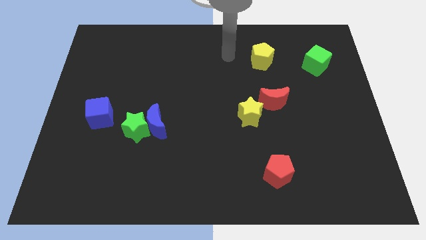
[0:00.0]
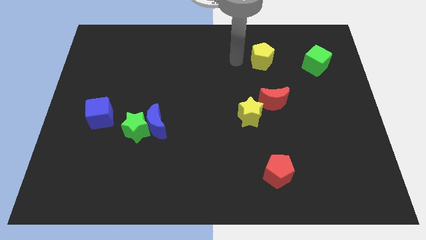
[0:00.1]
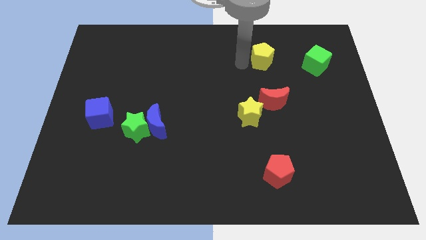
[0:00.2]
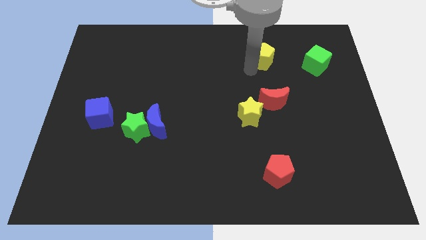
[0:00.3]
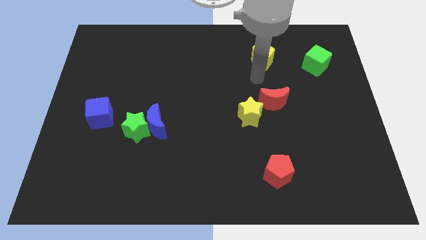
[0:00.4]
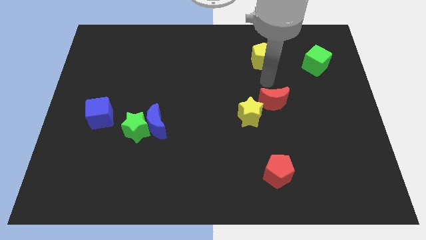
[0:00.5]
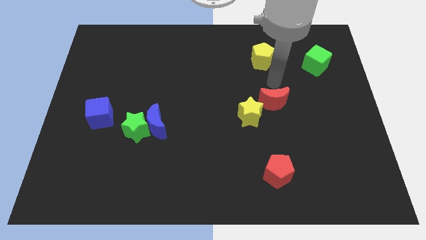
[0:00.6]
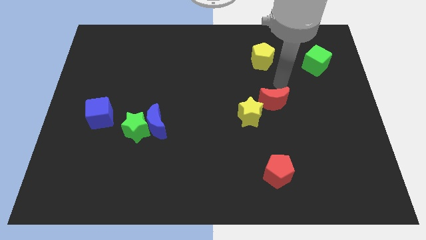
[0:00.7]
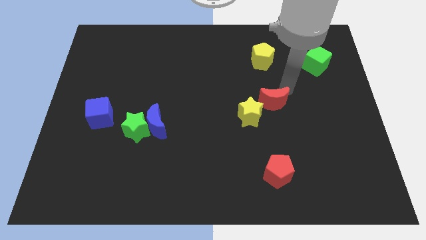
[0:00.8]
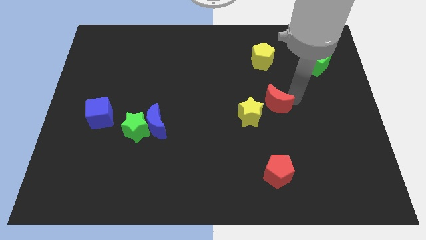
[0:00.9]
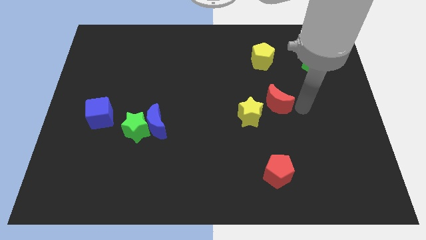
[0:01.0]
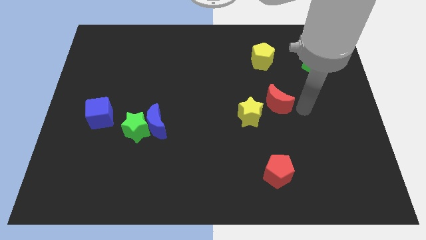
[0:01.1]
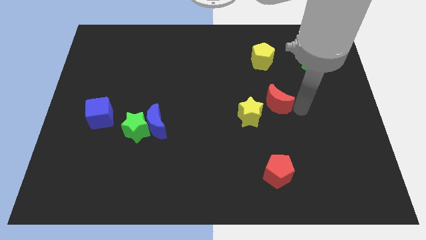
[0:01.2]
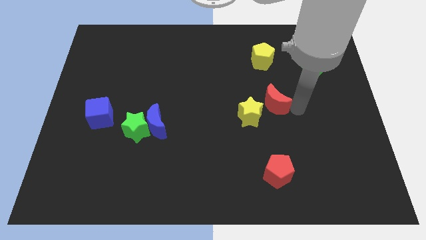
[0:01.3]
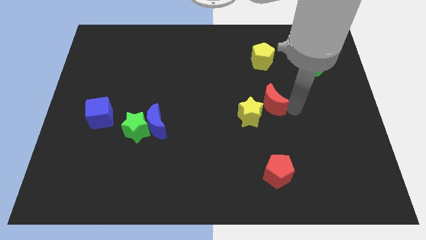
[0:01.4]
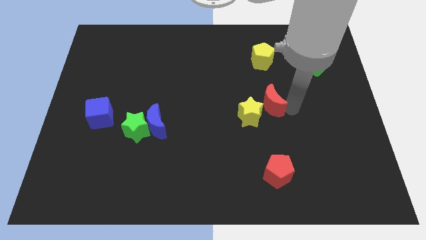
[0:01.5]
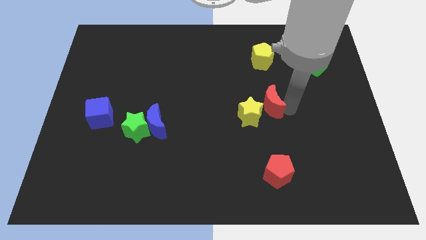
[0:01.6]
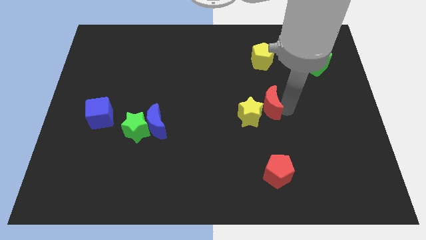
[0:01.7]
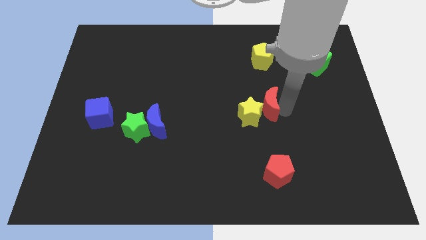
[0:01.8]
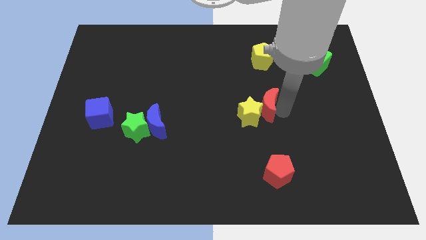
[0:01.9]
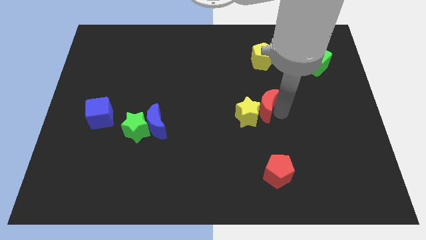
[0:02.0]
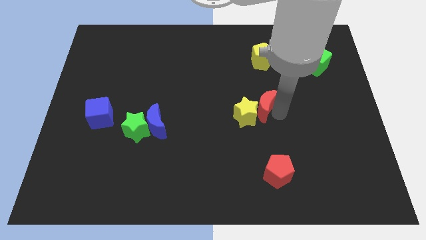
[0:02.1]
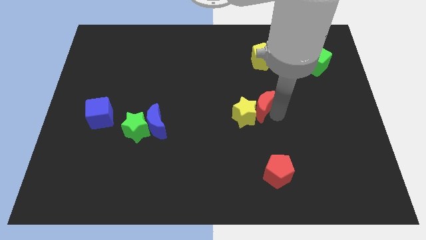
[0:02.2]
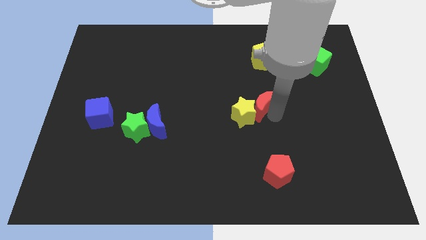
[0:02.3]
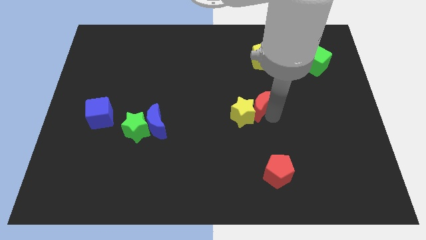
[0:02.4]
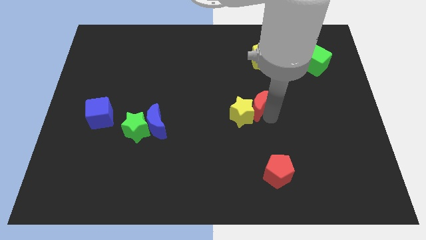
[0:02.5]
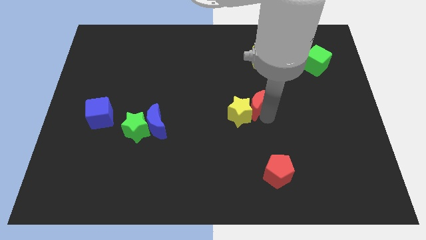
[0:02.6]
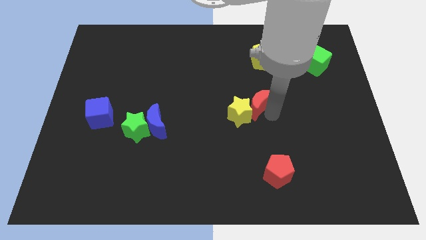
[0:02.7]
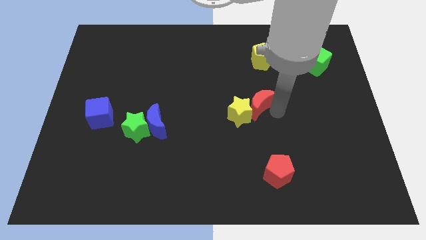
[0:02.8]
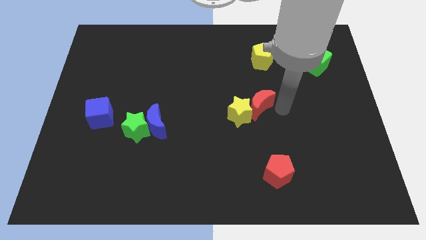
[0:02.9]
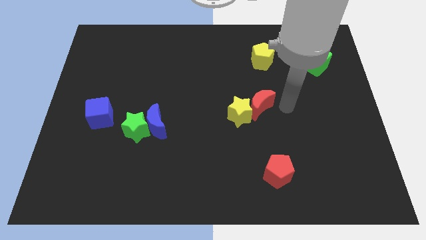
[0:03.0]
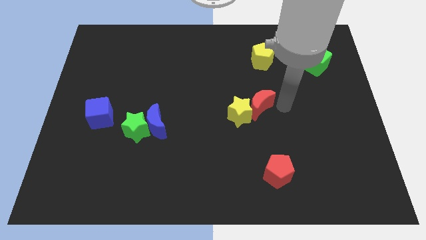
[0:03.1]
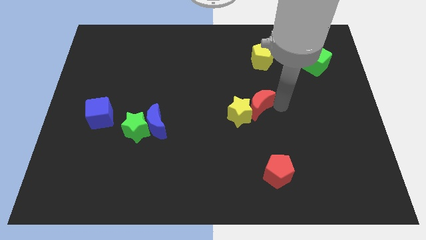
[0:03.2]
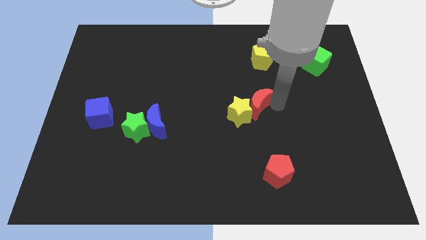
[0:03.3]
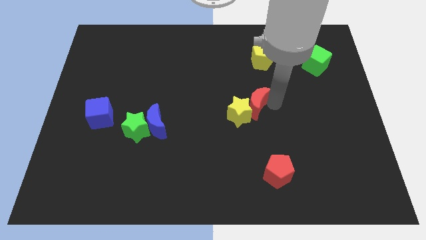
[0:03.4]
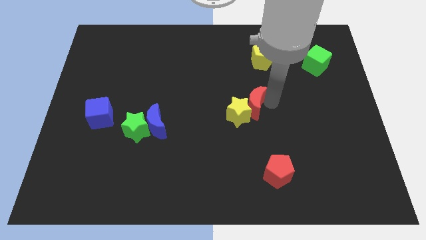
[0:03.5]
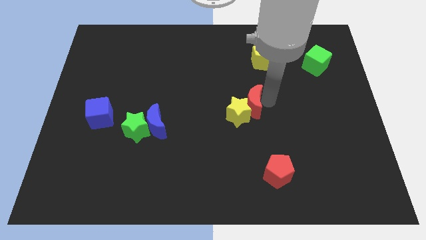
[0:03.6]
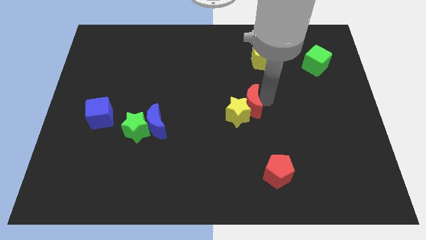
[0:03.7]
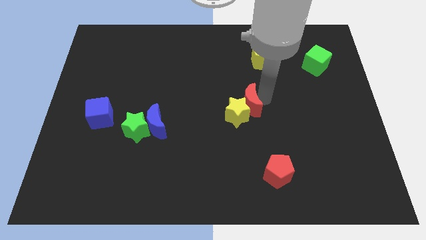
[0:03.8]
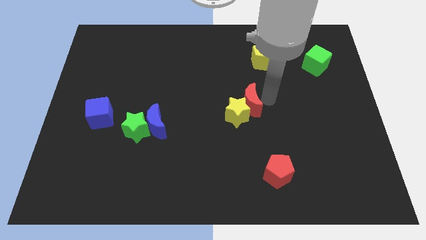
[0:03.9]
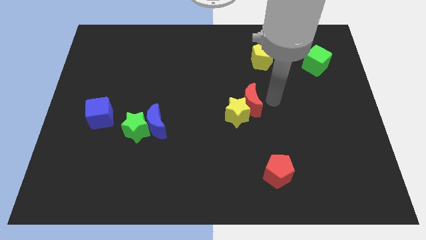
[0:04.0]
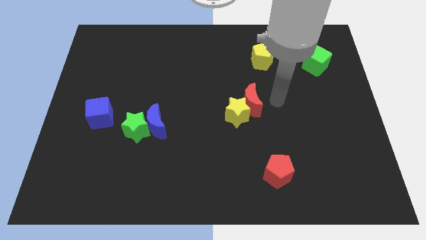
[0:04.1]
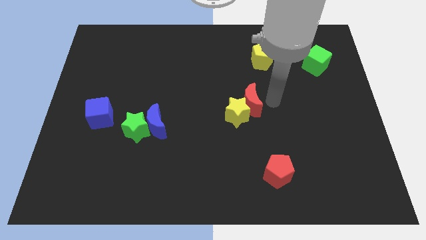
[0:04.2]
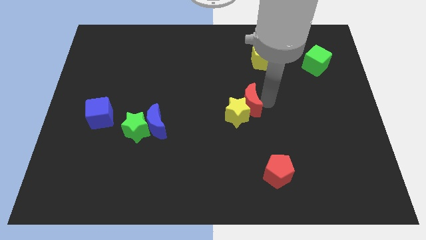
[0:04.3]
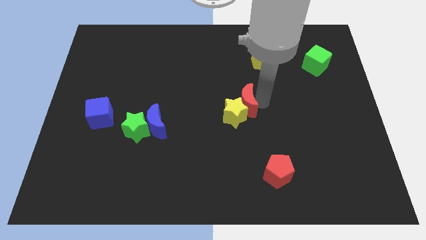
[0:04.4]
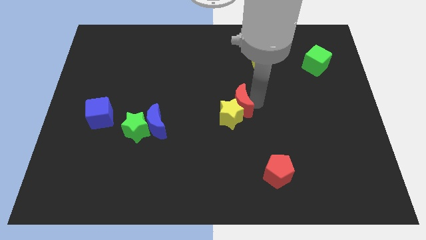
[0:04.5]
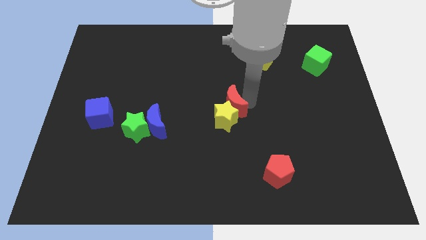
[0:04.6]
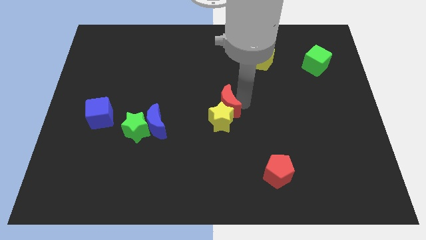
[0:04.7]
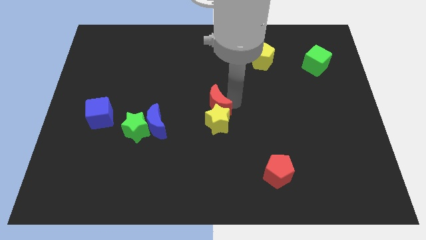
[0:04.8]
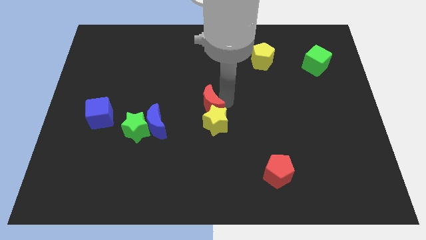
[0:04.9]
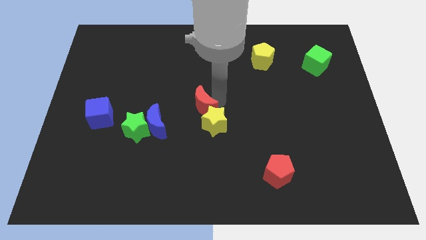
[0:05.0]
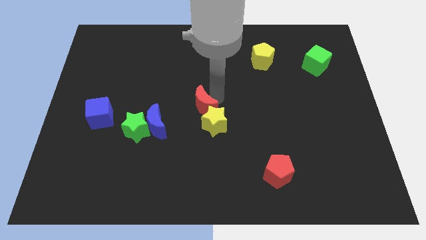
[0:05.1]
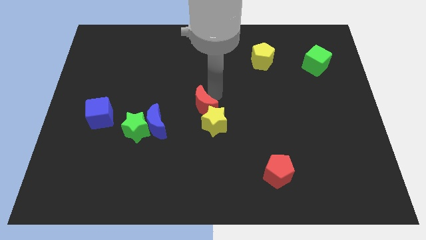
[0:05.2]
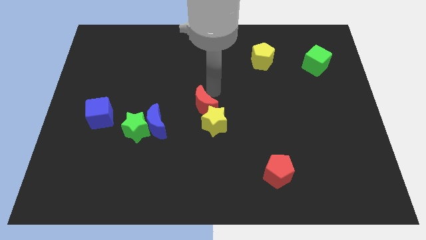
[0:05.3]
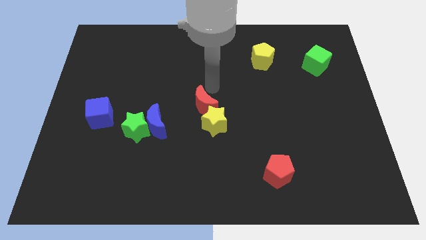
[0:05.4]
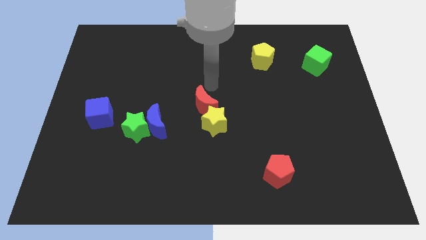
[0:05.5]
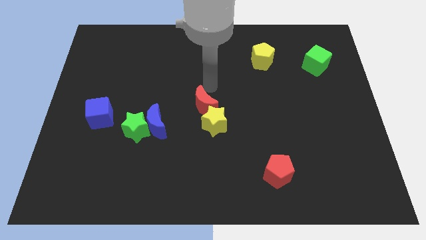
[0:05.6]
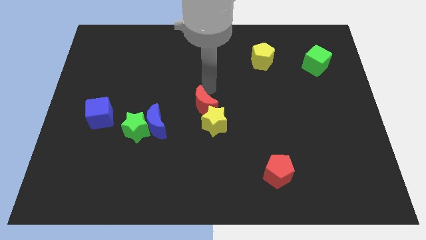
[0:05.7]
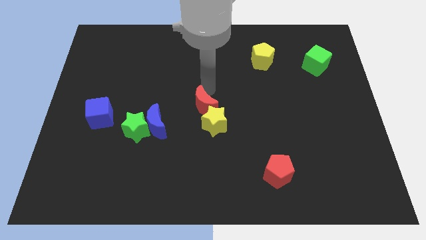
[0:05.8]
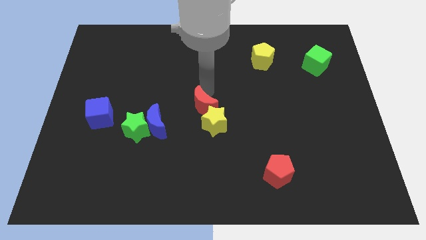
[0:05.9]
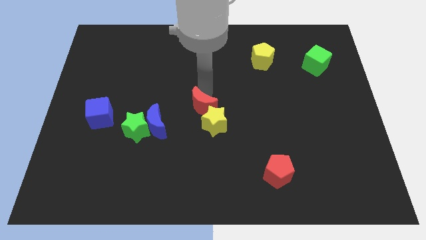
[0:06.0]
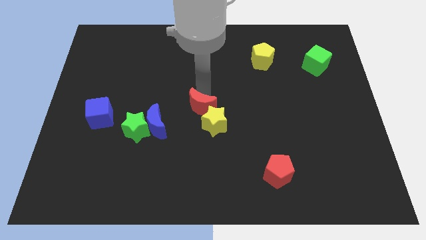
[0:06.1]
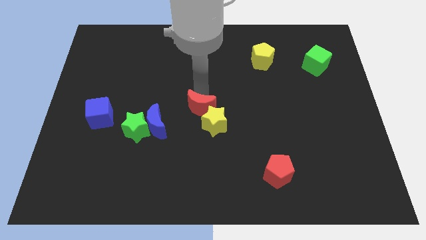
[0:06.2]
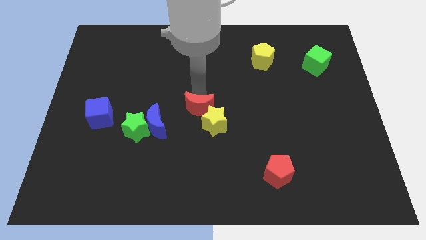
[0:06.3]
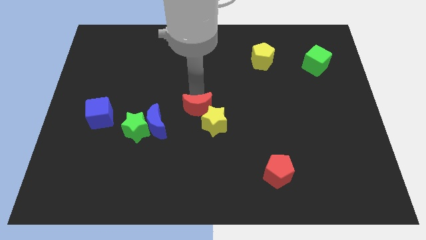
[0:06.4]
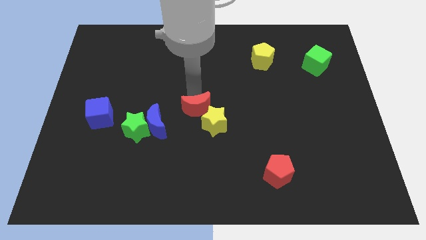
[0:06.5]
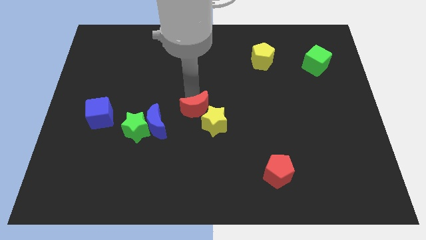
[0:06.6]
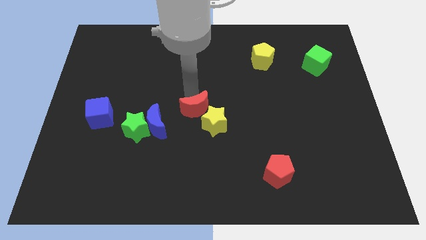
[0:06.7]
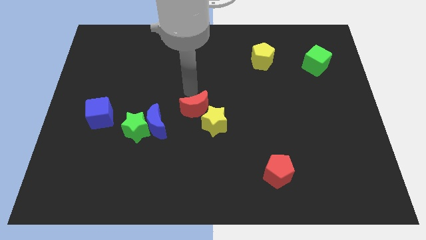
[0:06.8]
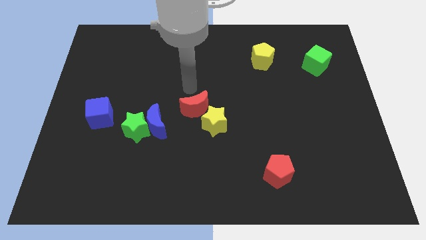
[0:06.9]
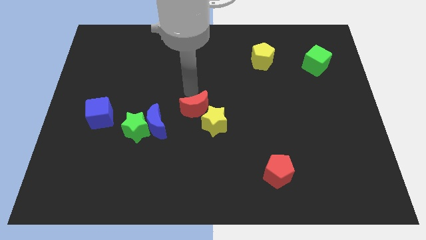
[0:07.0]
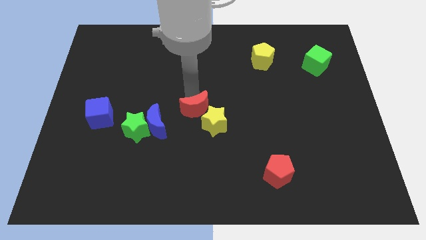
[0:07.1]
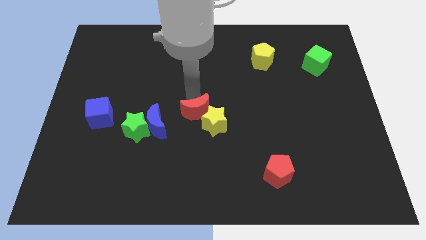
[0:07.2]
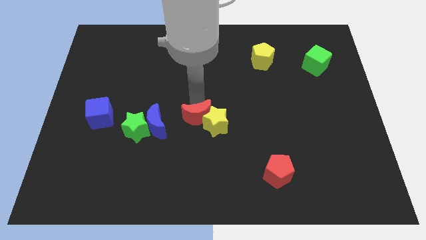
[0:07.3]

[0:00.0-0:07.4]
move the red moon just right of the green star
